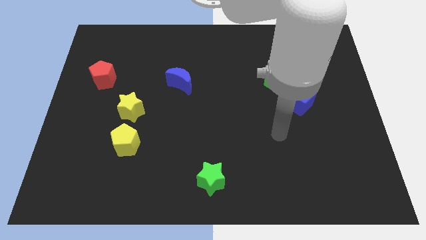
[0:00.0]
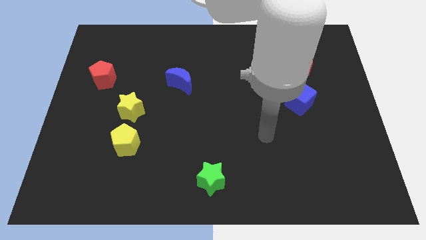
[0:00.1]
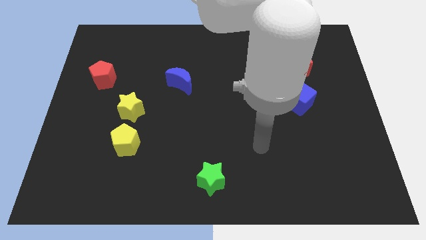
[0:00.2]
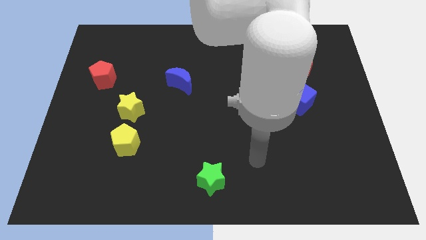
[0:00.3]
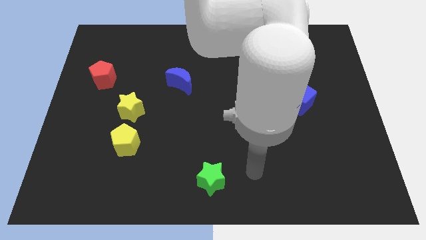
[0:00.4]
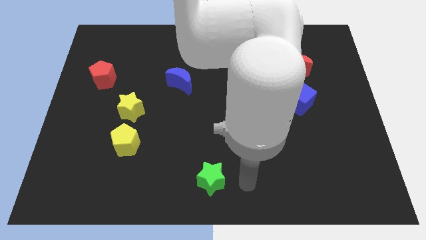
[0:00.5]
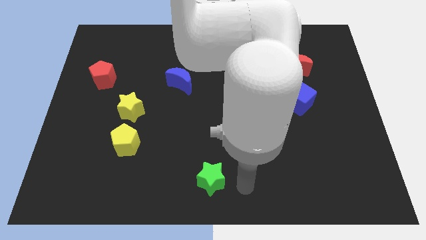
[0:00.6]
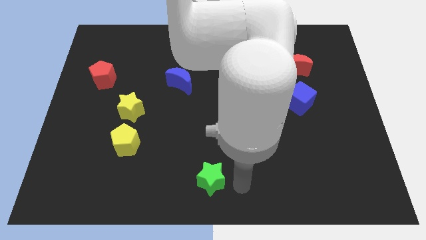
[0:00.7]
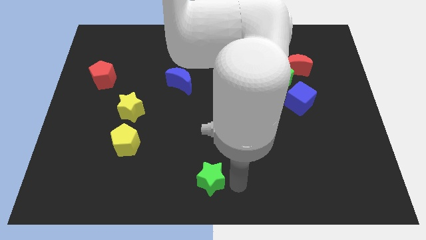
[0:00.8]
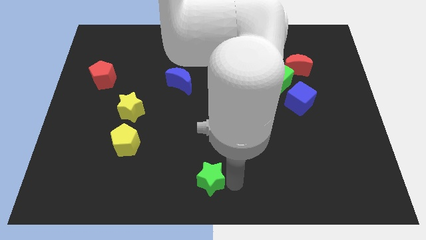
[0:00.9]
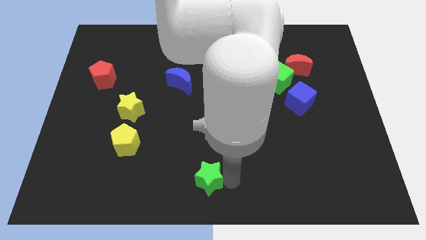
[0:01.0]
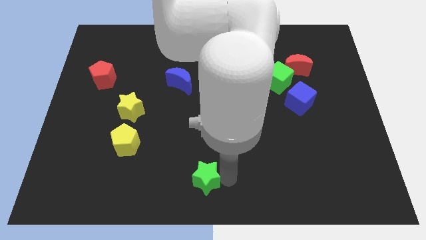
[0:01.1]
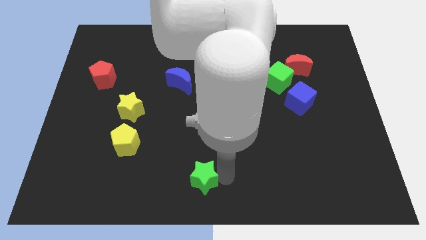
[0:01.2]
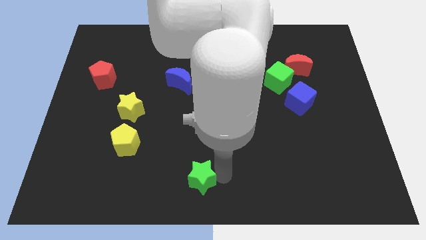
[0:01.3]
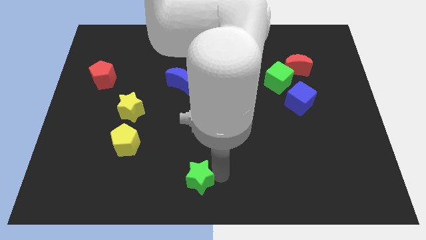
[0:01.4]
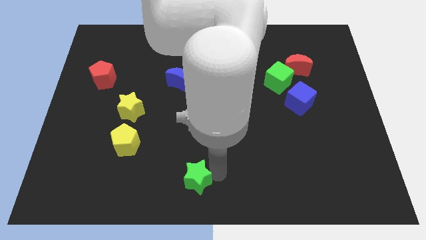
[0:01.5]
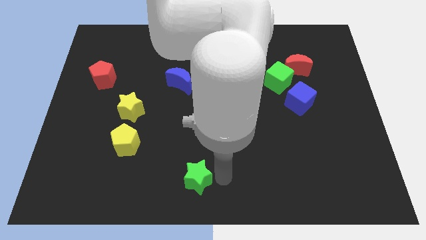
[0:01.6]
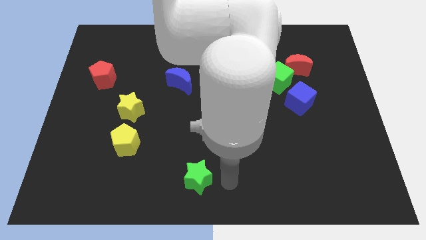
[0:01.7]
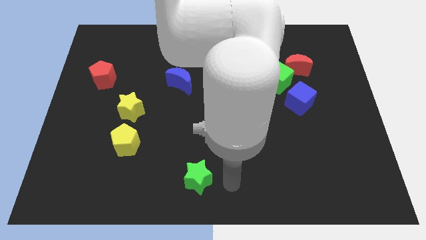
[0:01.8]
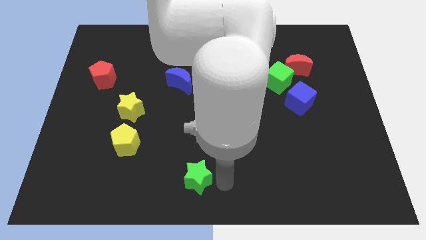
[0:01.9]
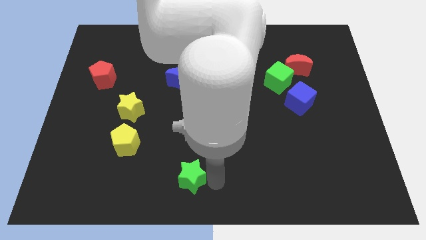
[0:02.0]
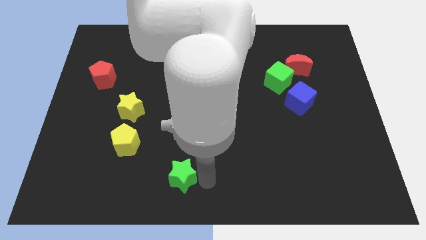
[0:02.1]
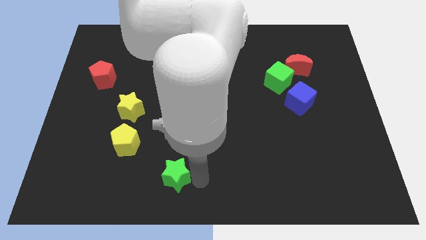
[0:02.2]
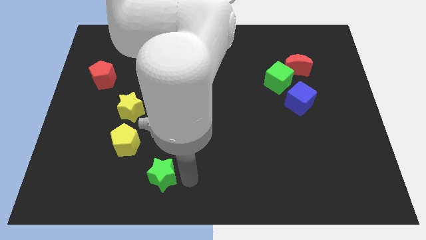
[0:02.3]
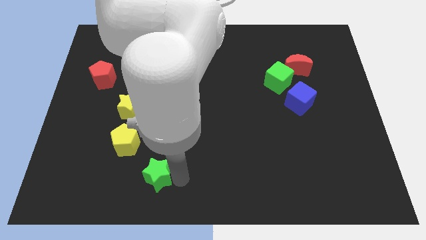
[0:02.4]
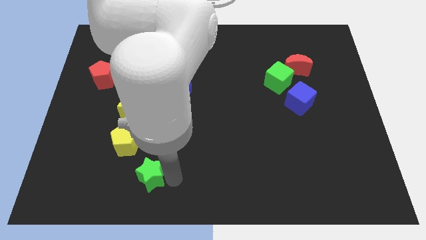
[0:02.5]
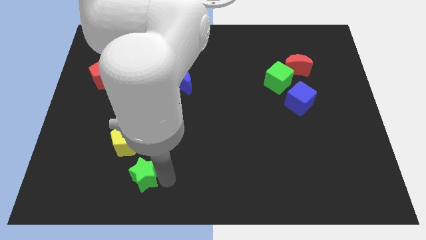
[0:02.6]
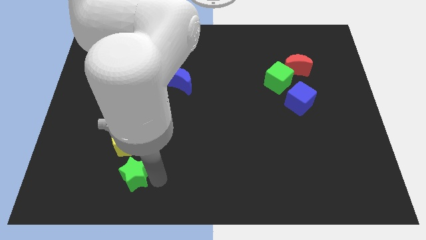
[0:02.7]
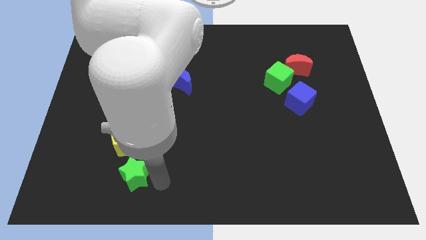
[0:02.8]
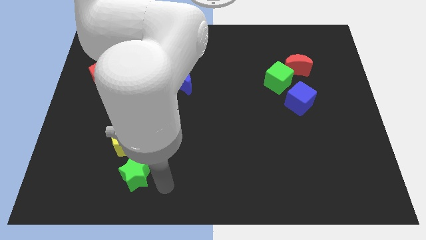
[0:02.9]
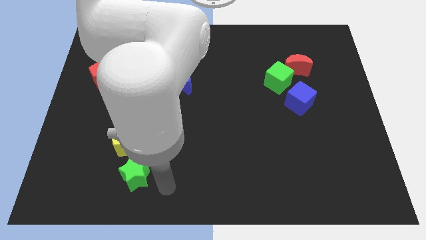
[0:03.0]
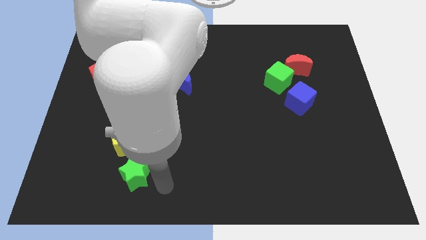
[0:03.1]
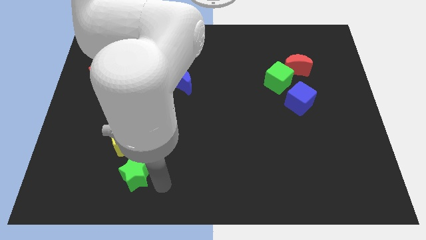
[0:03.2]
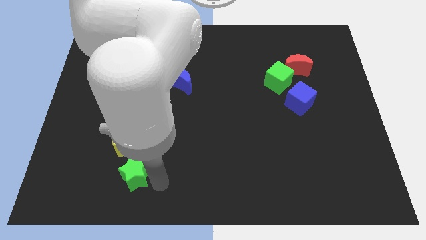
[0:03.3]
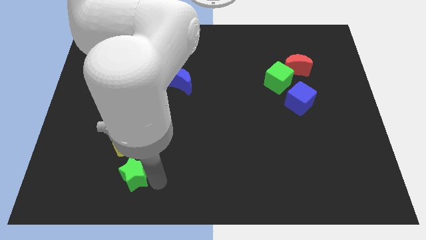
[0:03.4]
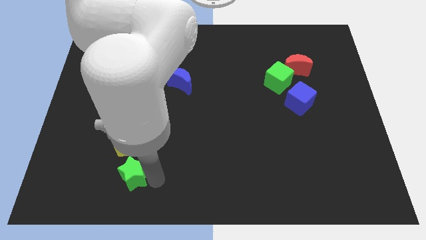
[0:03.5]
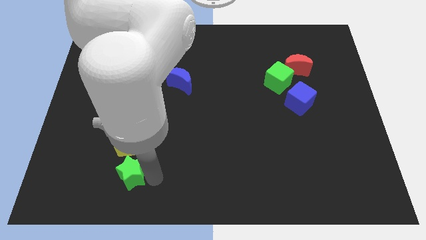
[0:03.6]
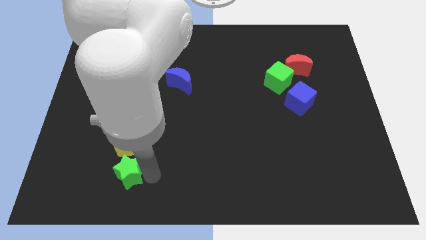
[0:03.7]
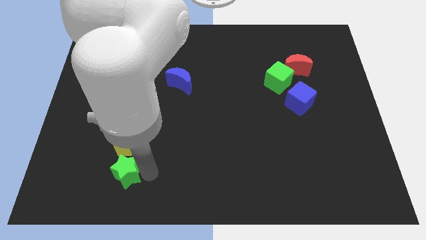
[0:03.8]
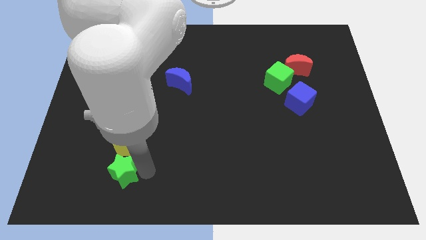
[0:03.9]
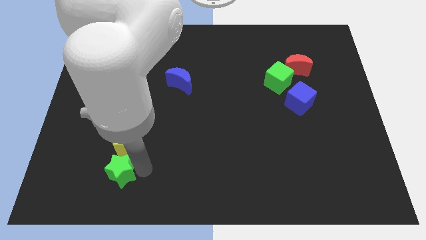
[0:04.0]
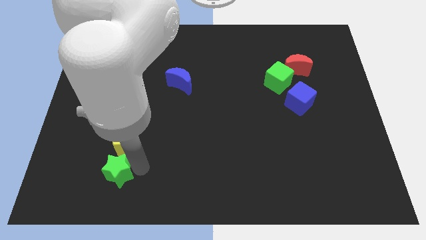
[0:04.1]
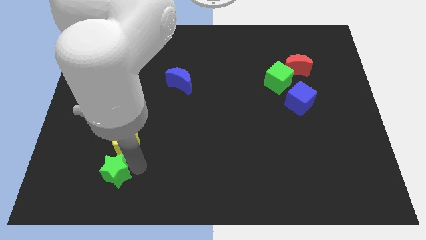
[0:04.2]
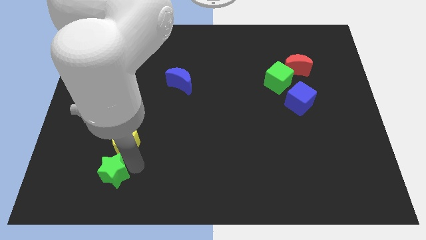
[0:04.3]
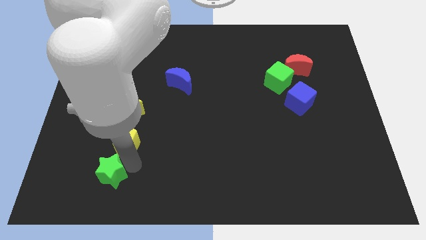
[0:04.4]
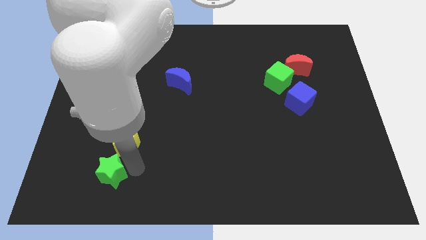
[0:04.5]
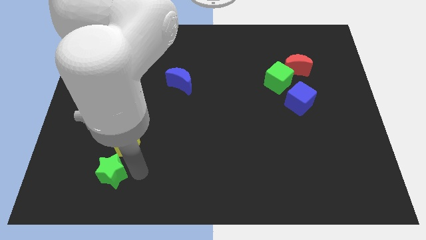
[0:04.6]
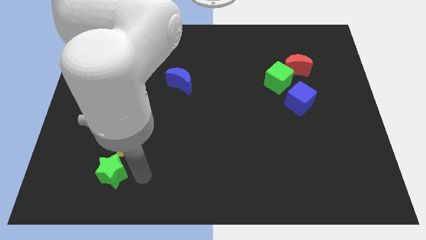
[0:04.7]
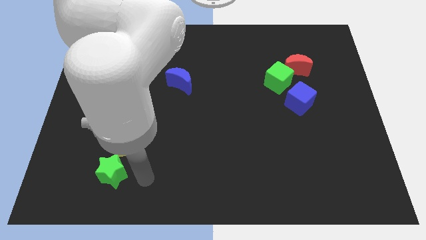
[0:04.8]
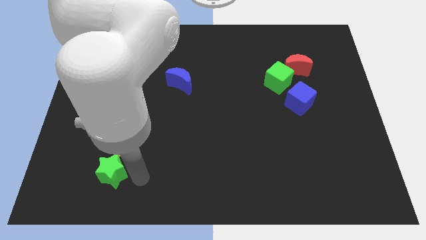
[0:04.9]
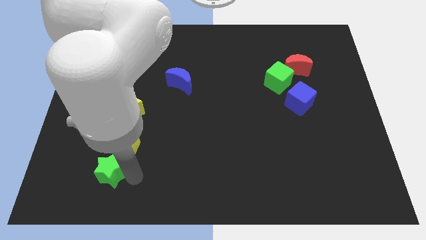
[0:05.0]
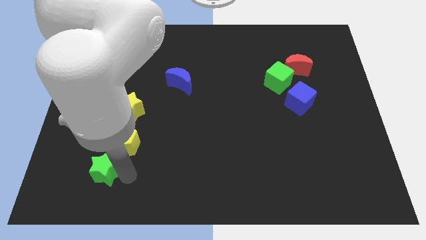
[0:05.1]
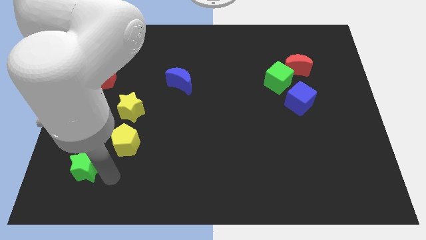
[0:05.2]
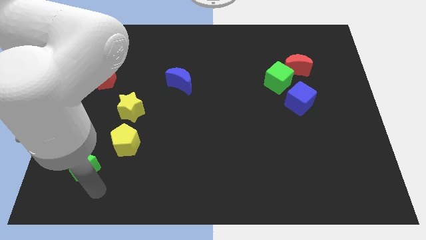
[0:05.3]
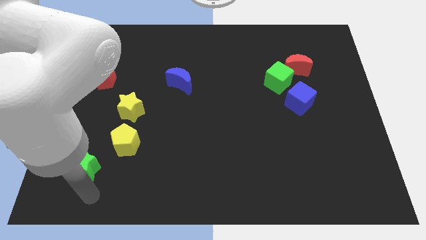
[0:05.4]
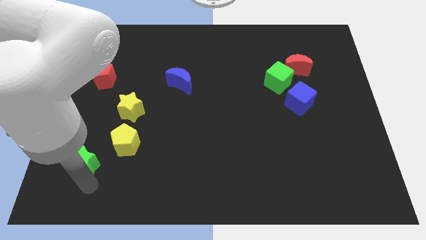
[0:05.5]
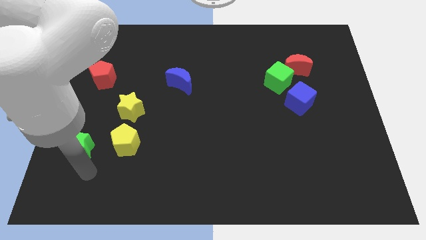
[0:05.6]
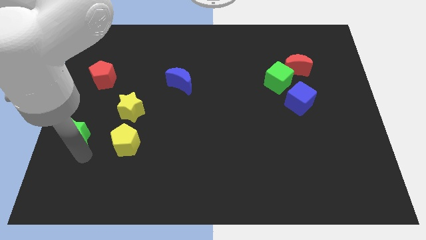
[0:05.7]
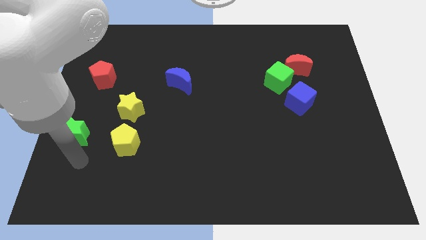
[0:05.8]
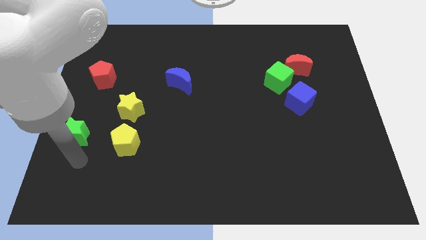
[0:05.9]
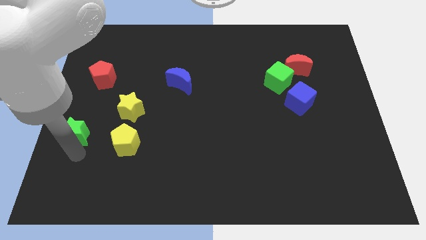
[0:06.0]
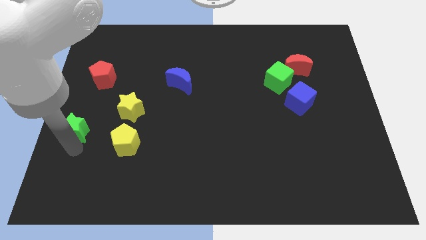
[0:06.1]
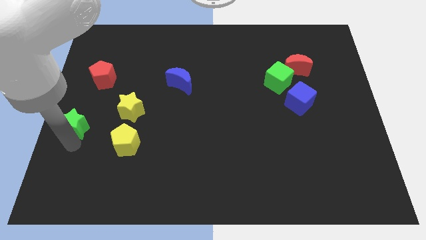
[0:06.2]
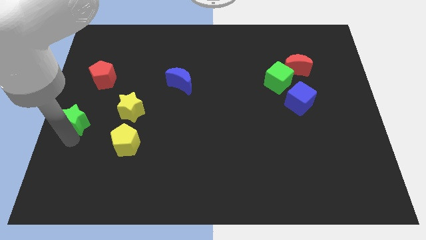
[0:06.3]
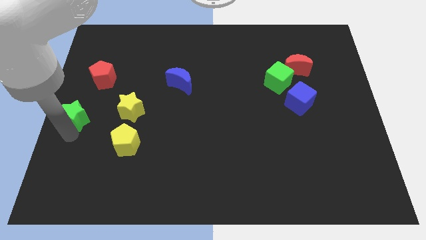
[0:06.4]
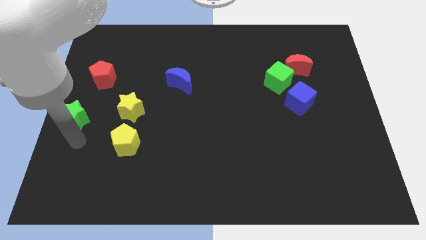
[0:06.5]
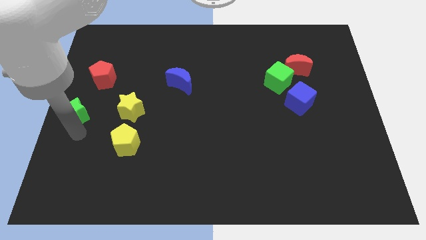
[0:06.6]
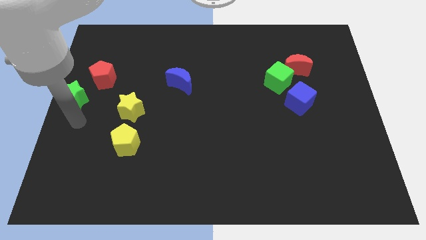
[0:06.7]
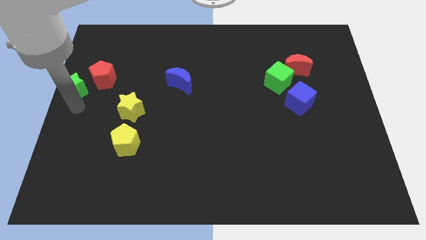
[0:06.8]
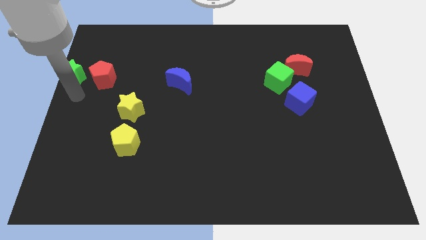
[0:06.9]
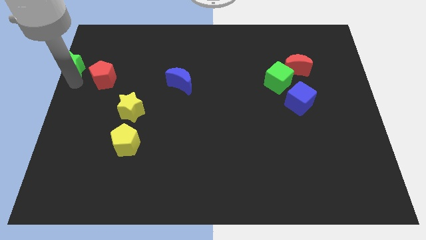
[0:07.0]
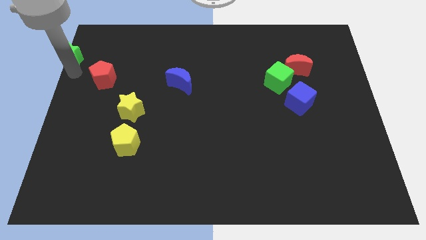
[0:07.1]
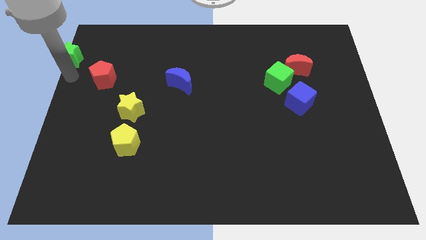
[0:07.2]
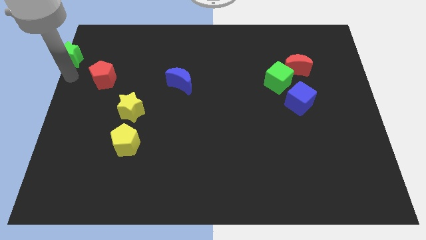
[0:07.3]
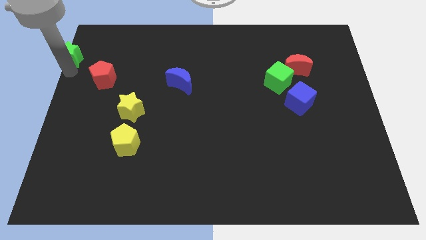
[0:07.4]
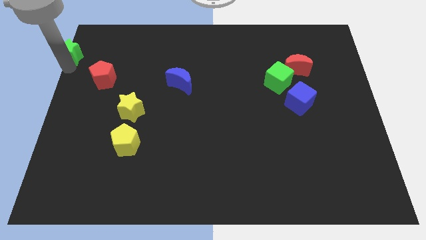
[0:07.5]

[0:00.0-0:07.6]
put the green star to the top left

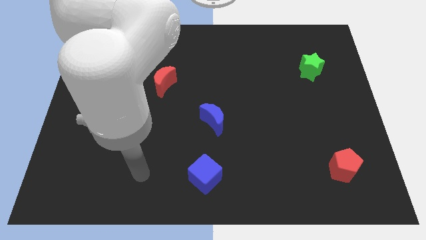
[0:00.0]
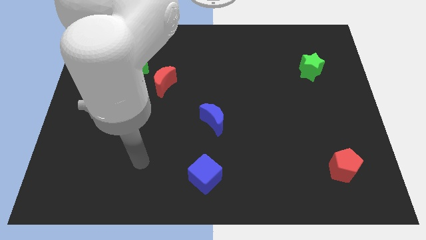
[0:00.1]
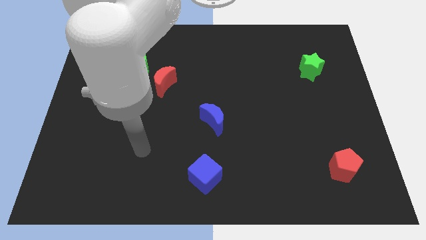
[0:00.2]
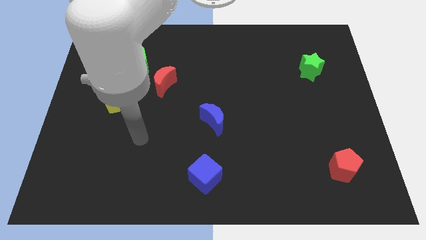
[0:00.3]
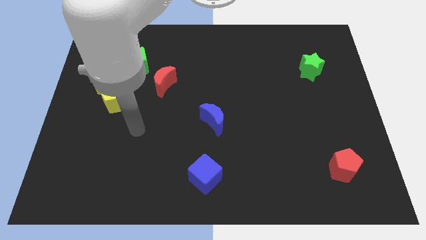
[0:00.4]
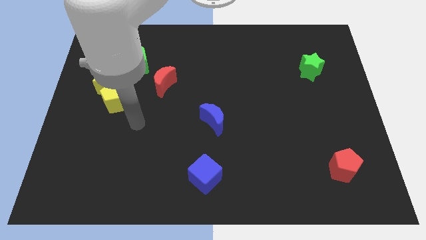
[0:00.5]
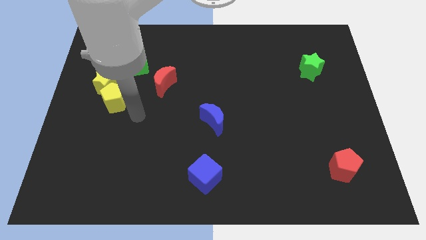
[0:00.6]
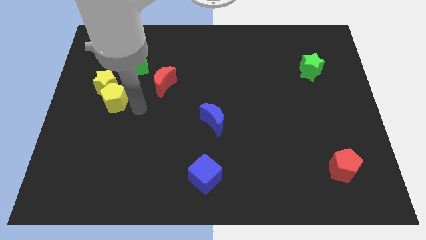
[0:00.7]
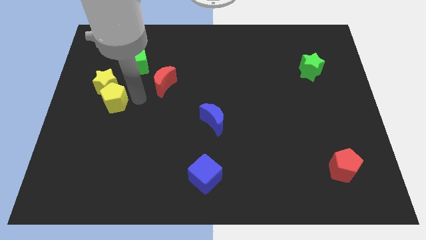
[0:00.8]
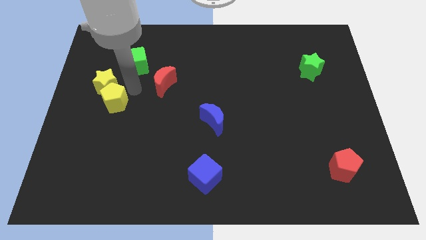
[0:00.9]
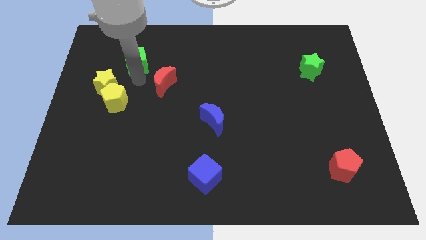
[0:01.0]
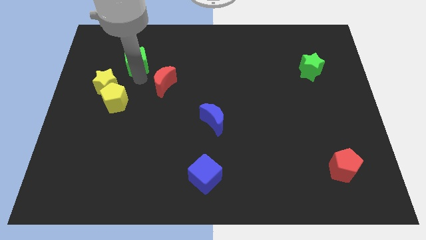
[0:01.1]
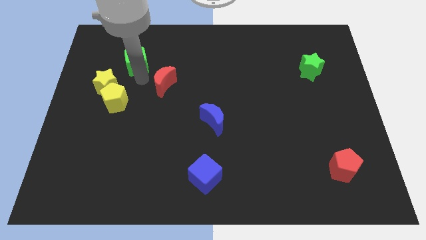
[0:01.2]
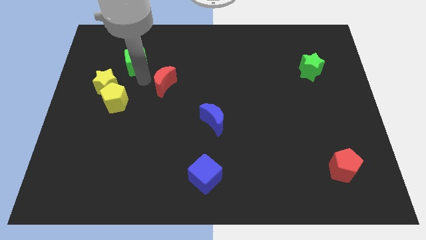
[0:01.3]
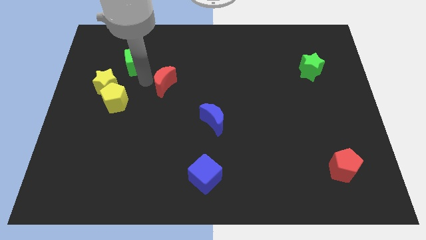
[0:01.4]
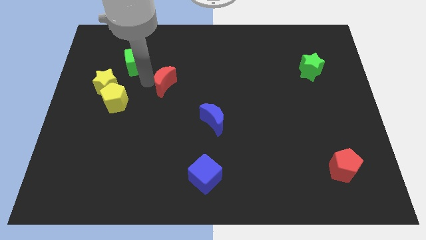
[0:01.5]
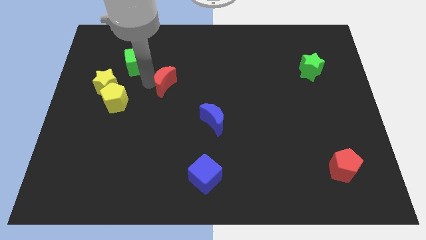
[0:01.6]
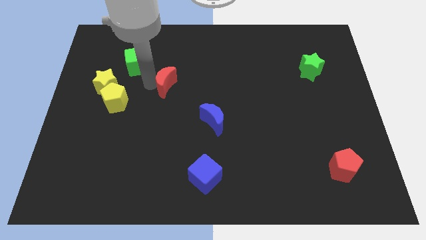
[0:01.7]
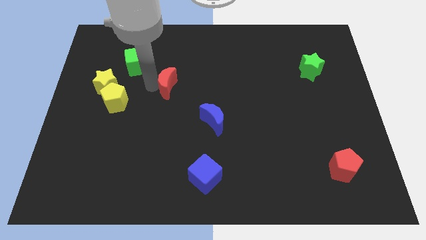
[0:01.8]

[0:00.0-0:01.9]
move the red moon to the center of the board
